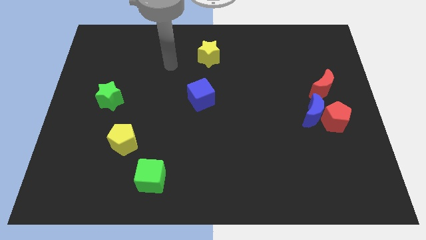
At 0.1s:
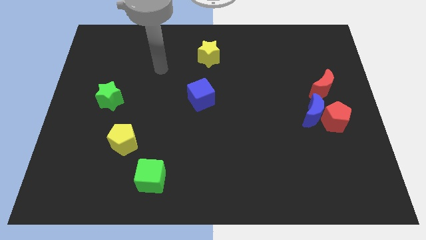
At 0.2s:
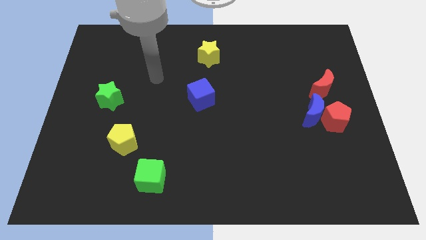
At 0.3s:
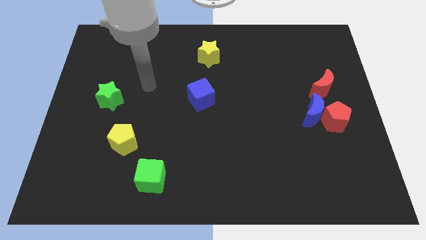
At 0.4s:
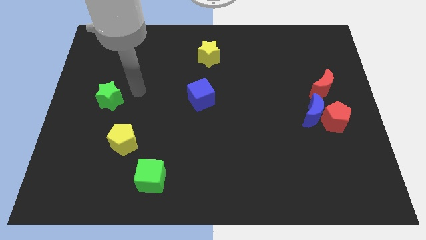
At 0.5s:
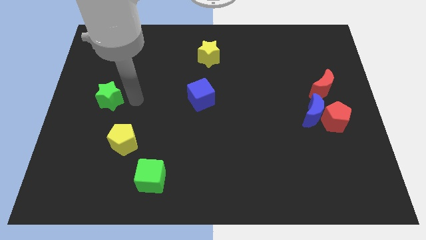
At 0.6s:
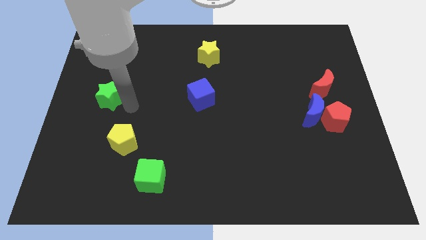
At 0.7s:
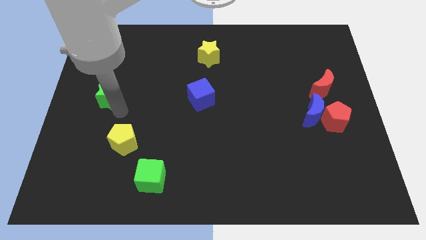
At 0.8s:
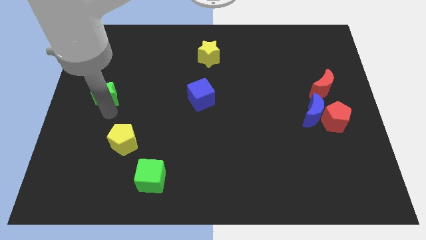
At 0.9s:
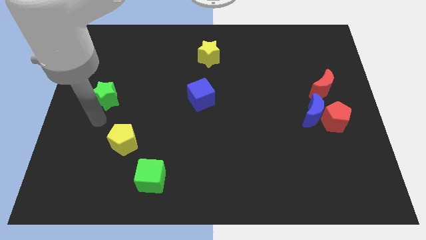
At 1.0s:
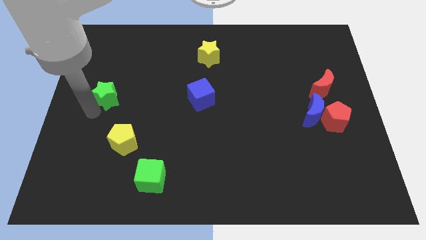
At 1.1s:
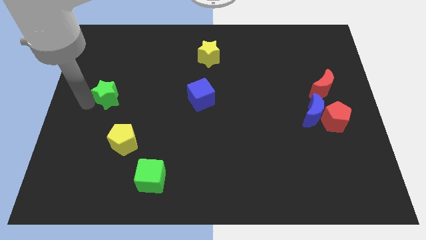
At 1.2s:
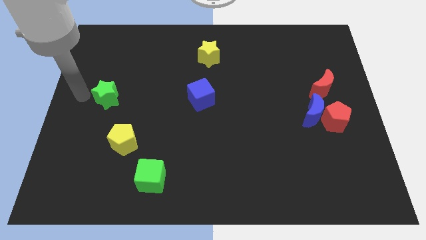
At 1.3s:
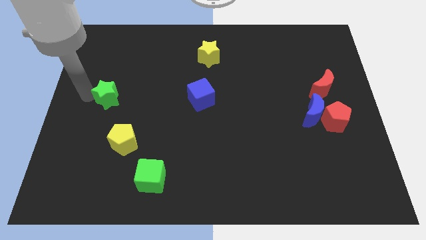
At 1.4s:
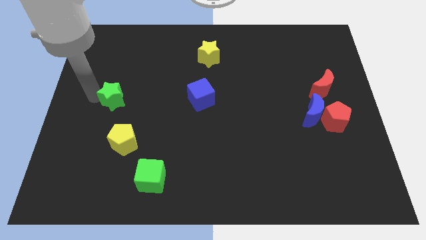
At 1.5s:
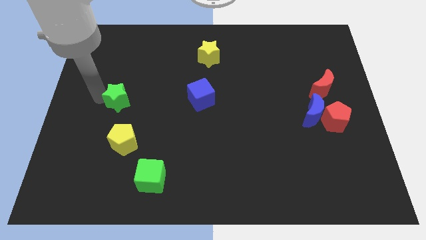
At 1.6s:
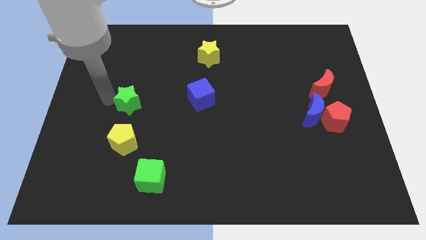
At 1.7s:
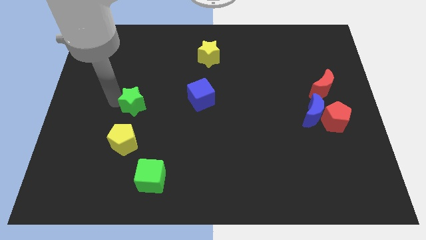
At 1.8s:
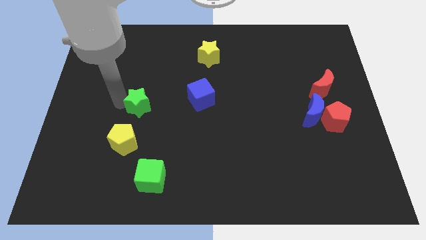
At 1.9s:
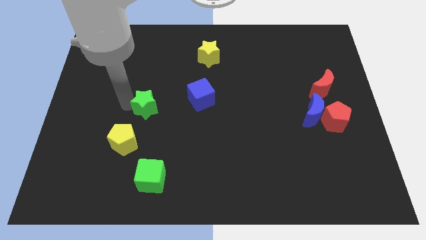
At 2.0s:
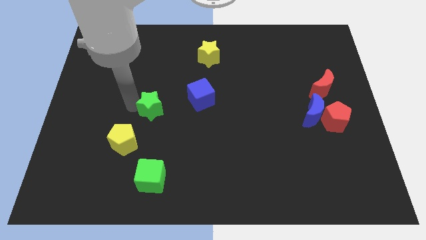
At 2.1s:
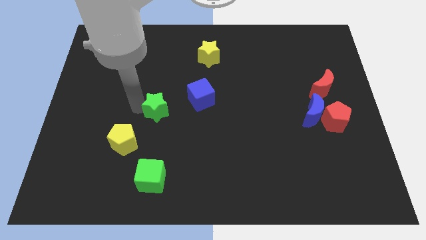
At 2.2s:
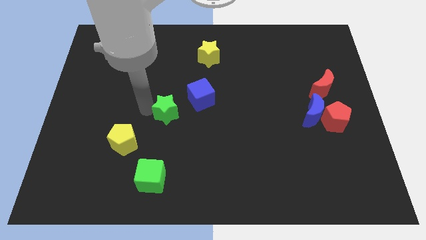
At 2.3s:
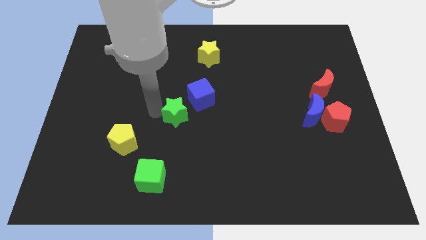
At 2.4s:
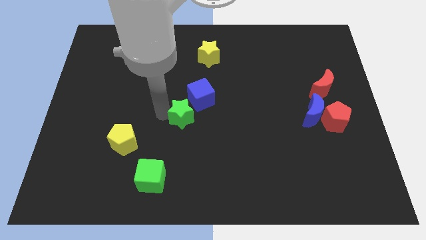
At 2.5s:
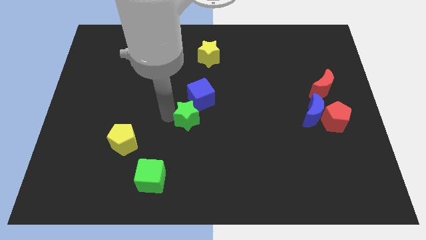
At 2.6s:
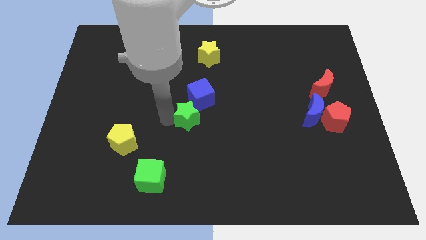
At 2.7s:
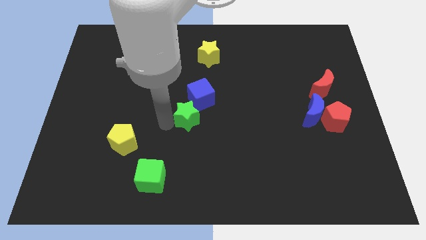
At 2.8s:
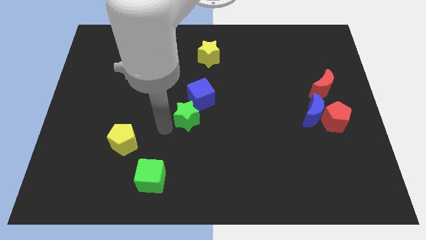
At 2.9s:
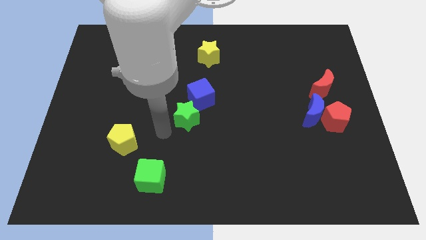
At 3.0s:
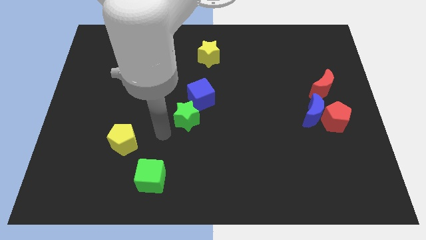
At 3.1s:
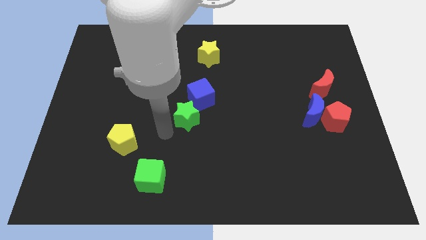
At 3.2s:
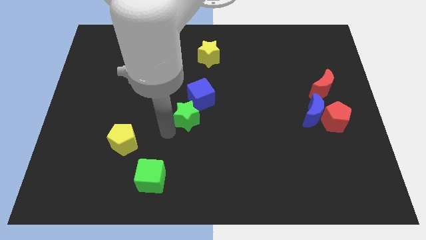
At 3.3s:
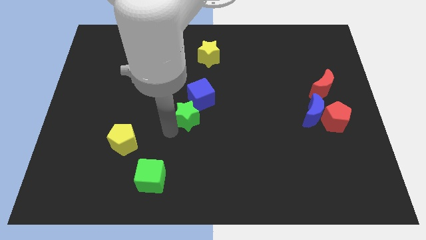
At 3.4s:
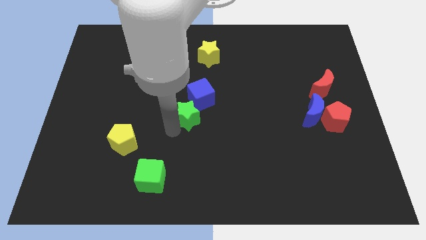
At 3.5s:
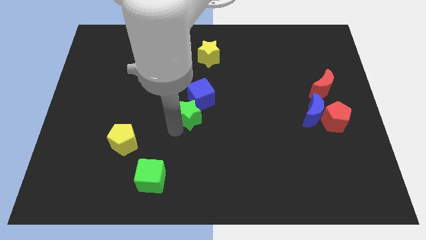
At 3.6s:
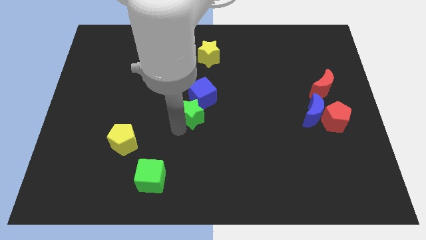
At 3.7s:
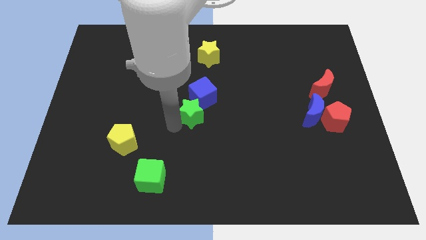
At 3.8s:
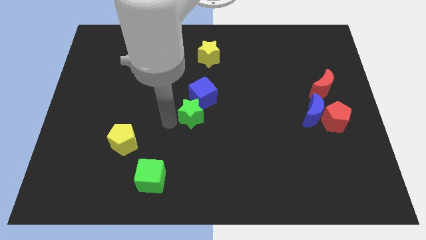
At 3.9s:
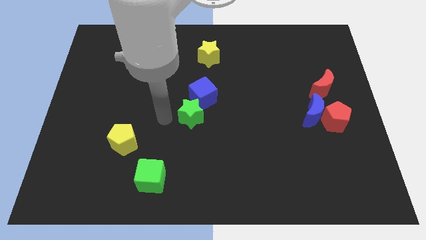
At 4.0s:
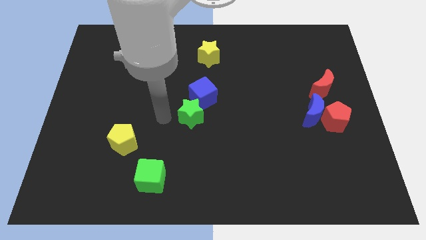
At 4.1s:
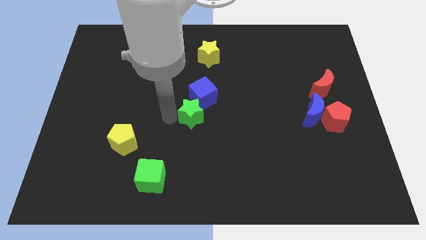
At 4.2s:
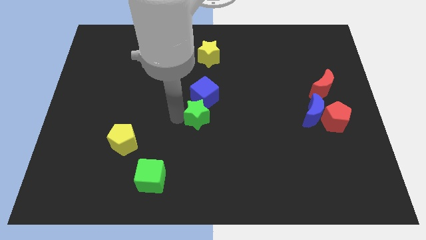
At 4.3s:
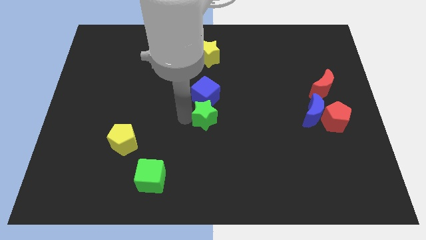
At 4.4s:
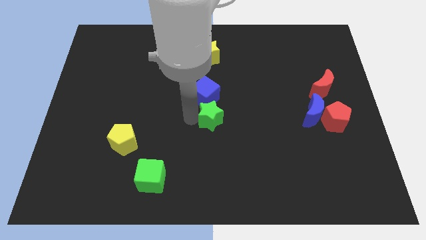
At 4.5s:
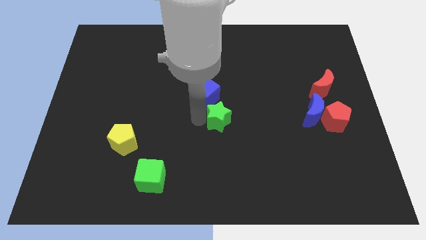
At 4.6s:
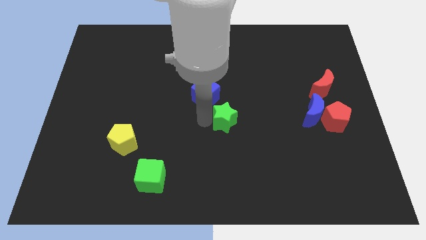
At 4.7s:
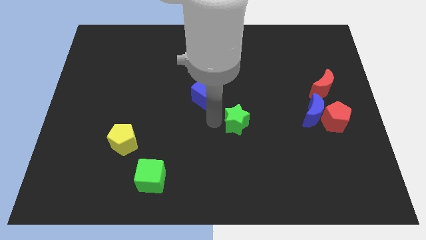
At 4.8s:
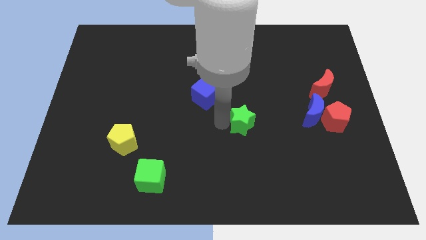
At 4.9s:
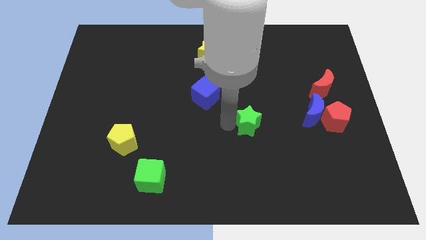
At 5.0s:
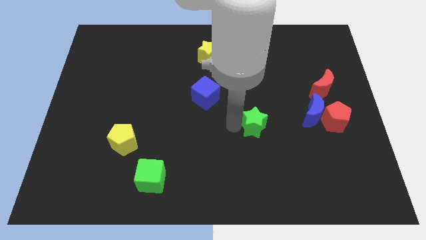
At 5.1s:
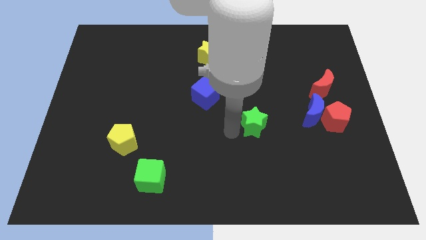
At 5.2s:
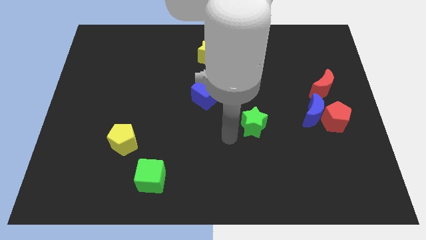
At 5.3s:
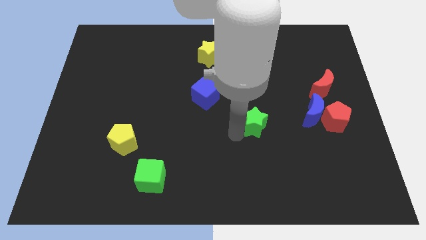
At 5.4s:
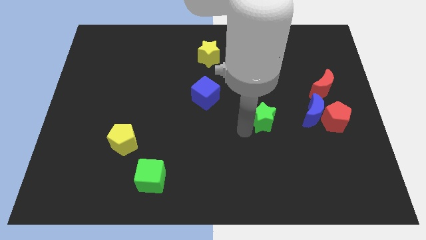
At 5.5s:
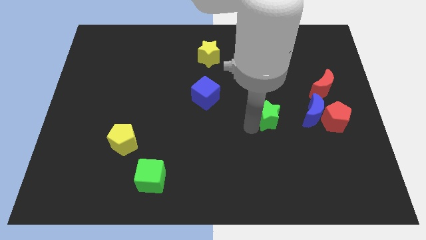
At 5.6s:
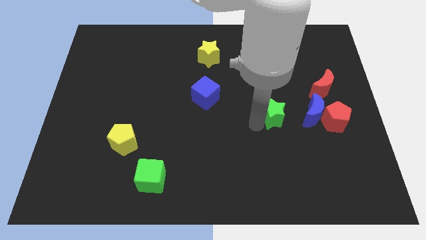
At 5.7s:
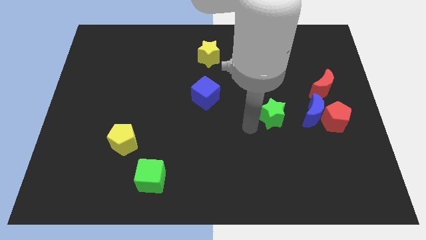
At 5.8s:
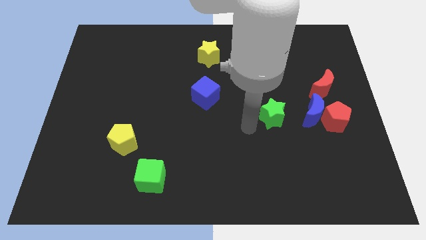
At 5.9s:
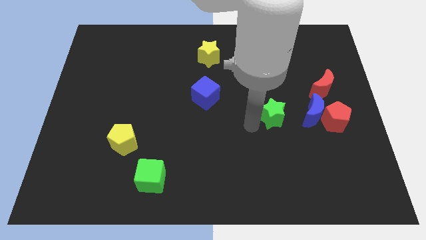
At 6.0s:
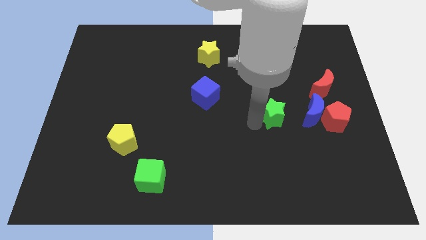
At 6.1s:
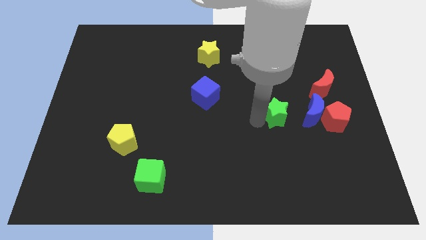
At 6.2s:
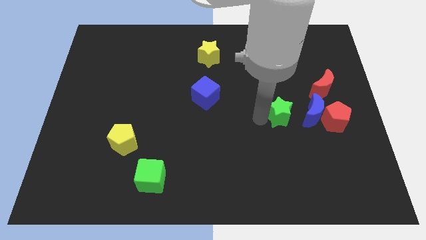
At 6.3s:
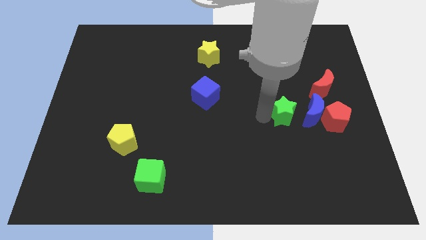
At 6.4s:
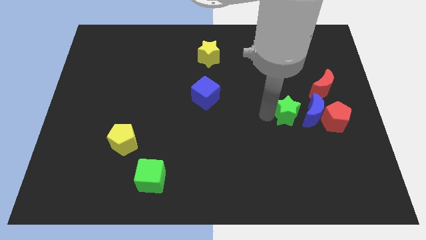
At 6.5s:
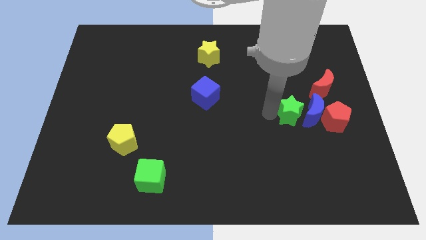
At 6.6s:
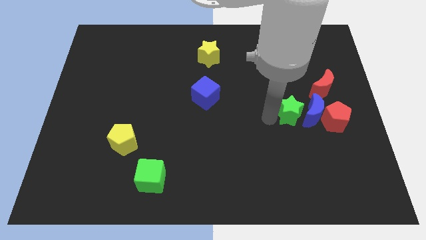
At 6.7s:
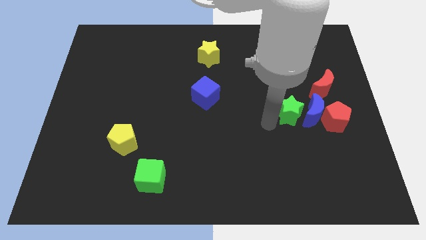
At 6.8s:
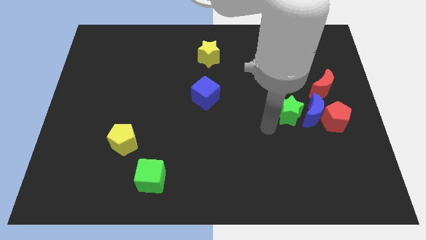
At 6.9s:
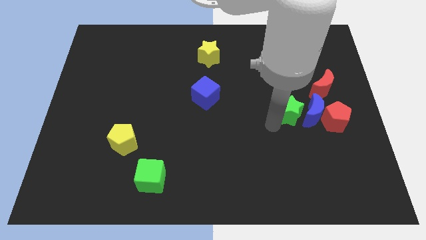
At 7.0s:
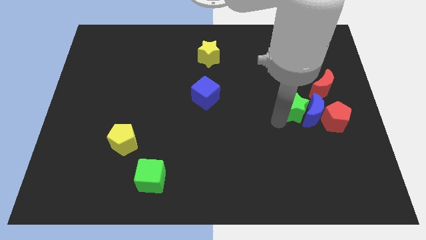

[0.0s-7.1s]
slide the green star to the top left of the red pentagon

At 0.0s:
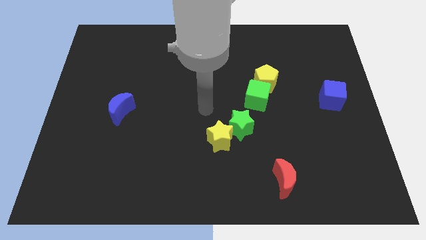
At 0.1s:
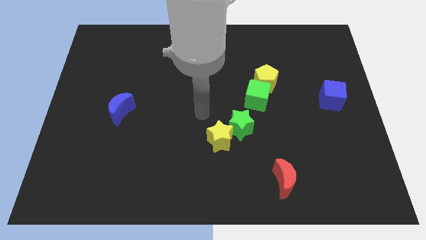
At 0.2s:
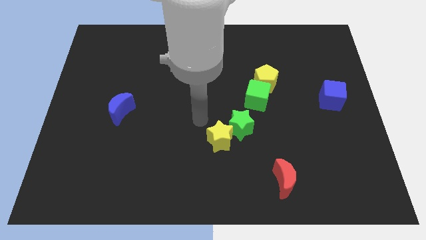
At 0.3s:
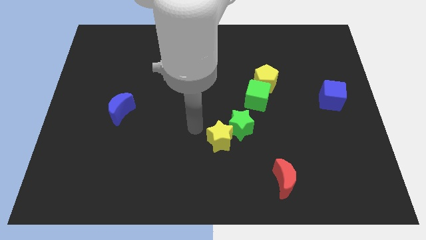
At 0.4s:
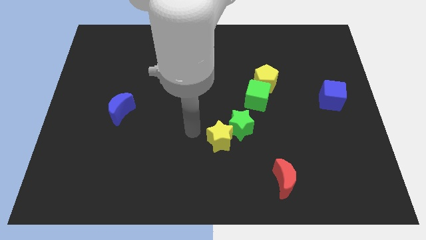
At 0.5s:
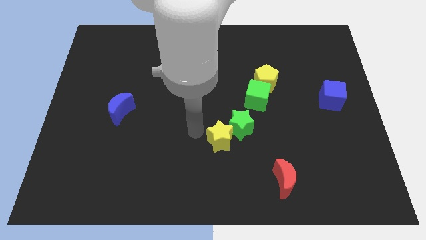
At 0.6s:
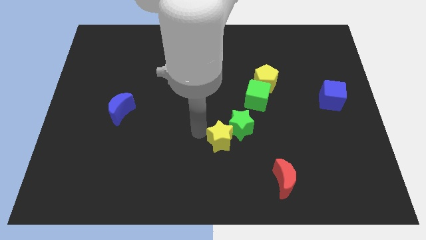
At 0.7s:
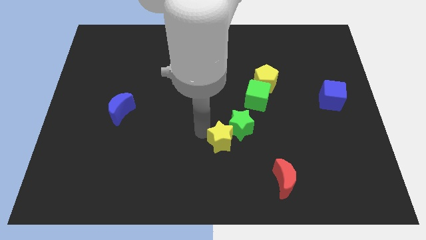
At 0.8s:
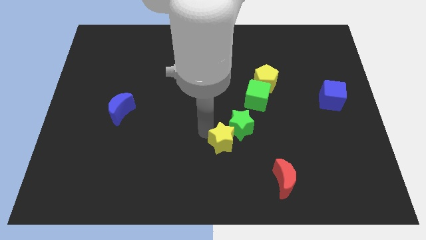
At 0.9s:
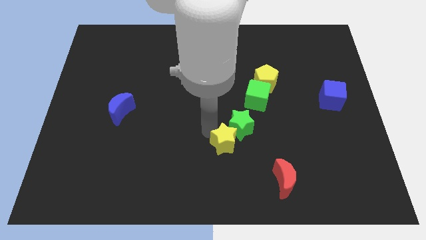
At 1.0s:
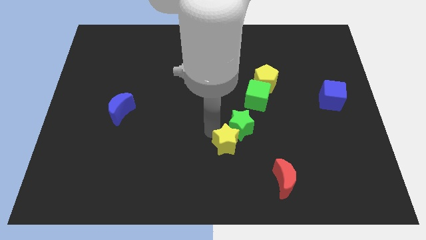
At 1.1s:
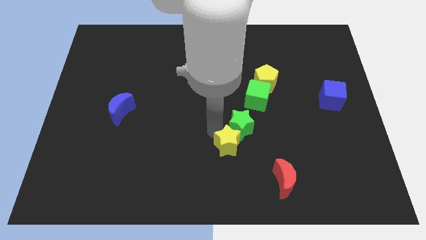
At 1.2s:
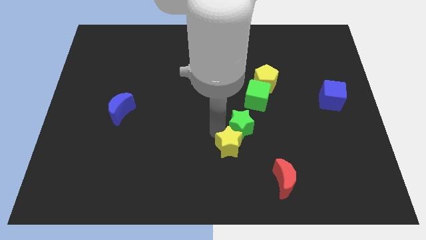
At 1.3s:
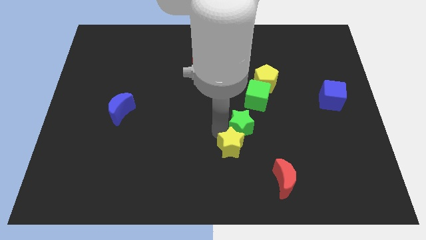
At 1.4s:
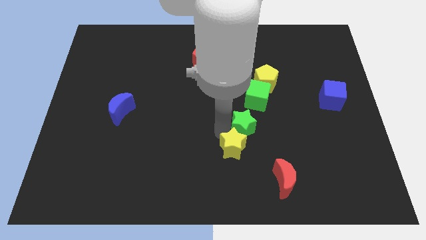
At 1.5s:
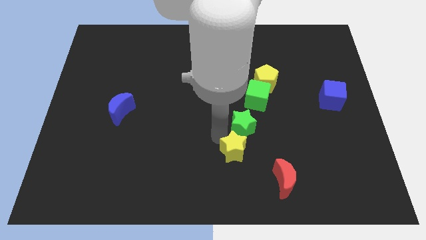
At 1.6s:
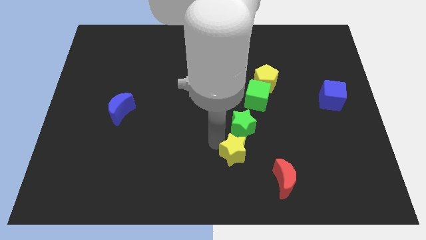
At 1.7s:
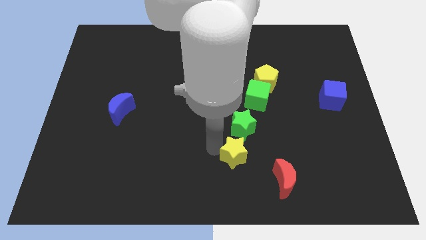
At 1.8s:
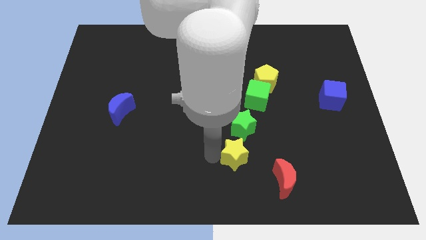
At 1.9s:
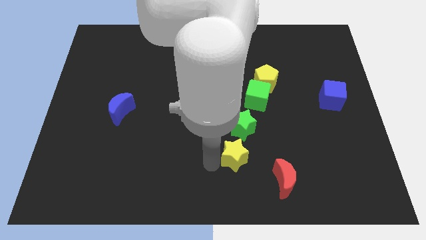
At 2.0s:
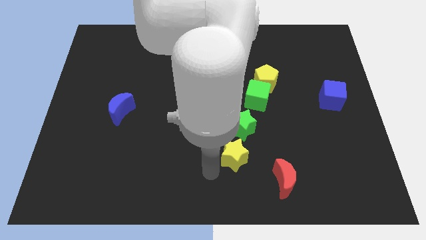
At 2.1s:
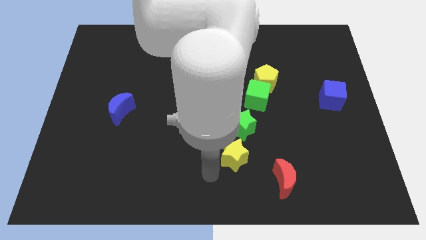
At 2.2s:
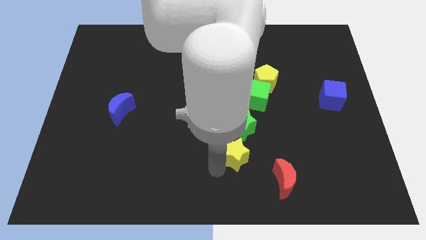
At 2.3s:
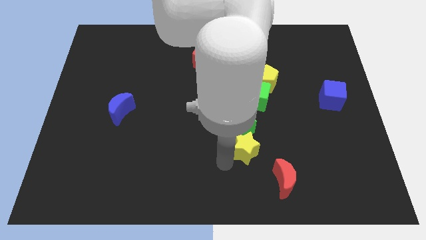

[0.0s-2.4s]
push the yellow star below the green cube
